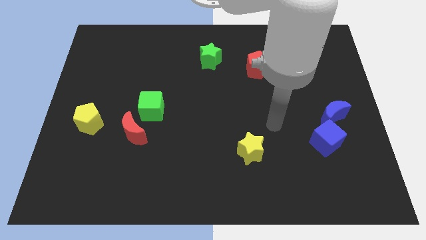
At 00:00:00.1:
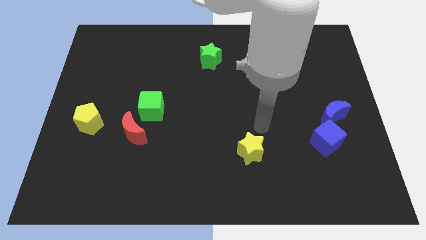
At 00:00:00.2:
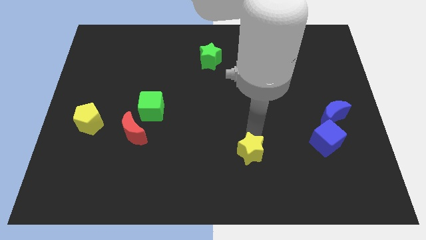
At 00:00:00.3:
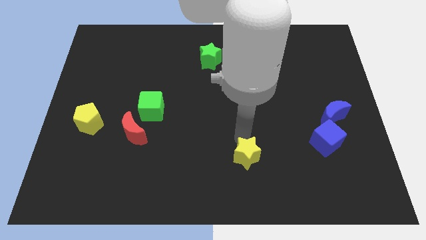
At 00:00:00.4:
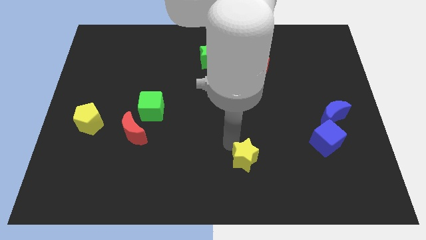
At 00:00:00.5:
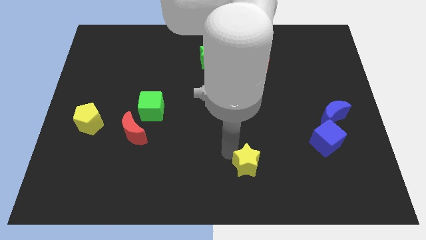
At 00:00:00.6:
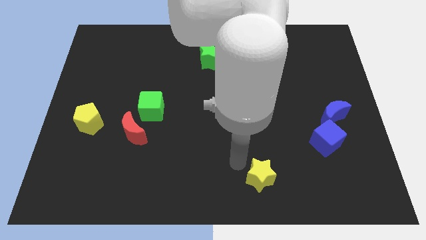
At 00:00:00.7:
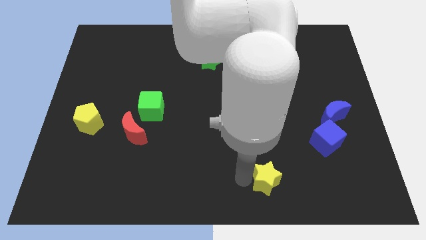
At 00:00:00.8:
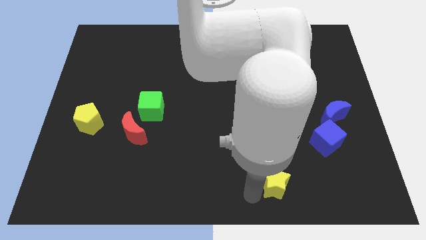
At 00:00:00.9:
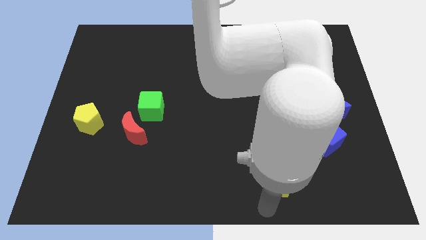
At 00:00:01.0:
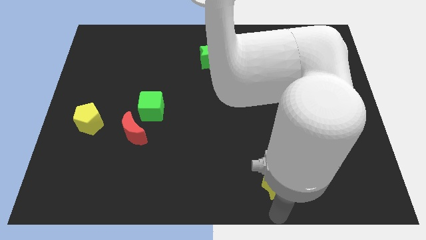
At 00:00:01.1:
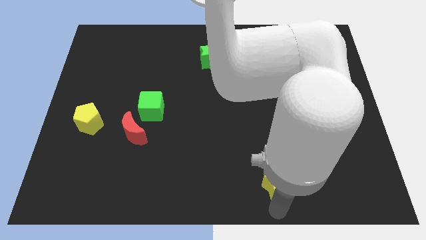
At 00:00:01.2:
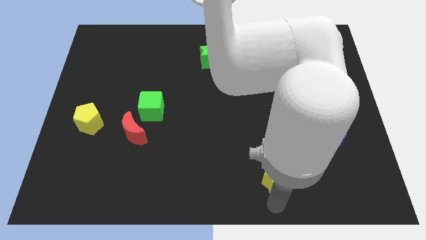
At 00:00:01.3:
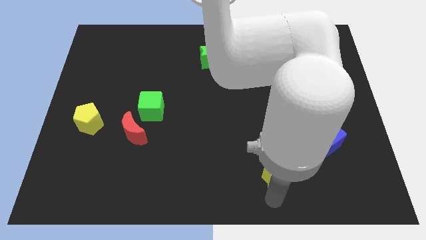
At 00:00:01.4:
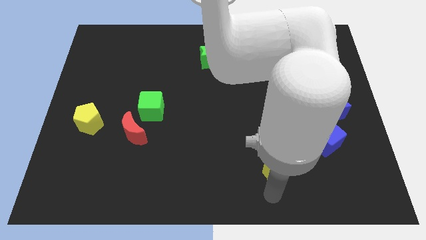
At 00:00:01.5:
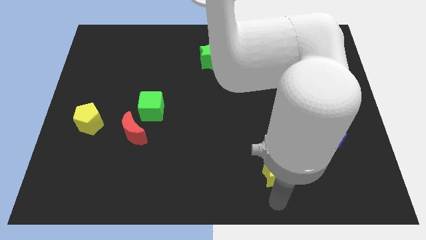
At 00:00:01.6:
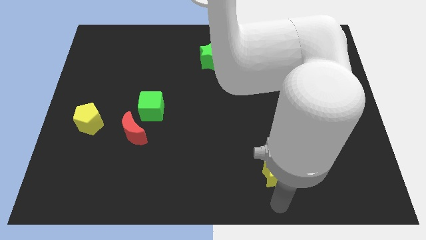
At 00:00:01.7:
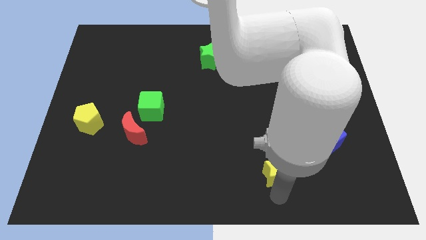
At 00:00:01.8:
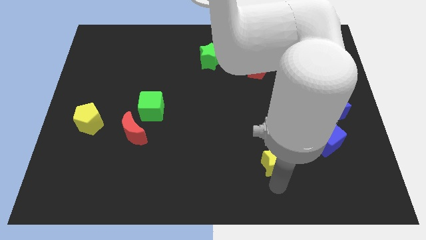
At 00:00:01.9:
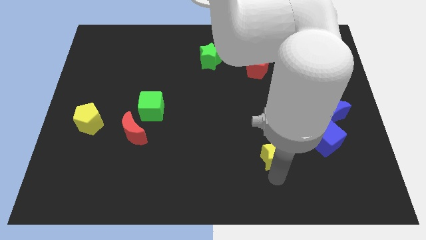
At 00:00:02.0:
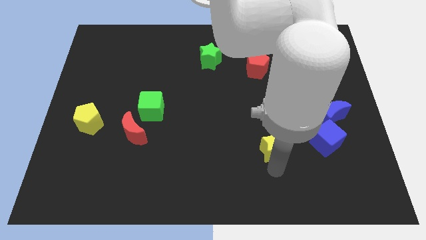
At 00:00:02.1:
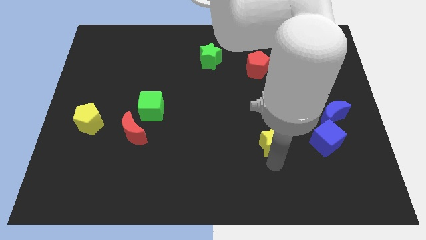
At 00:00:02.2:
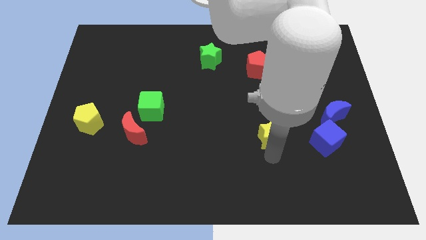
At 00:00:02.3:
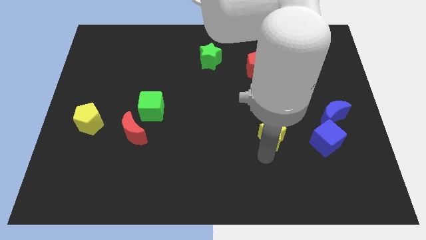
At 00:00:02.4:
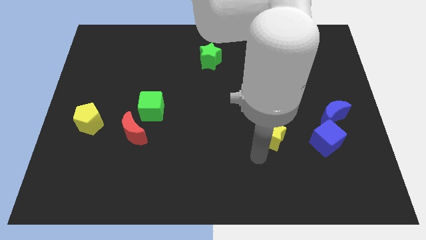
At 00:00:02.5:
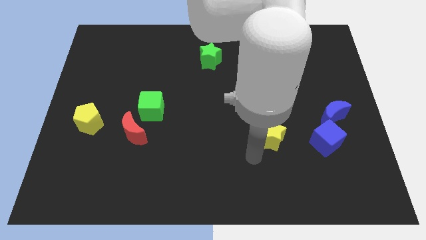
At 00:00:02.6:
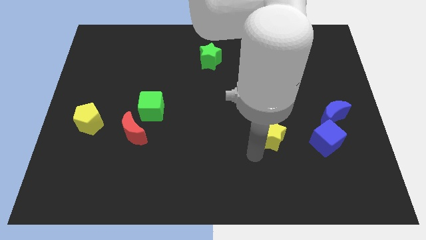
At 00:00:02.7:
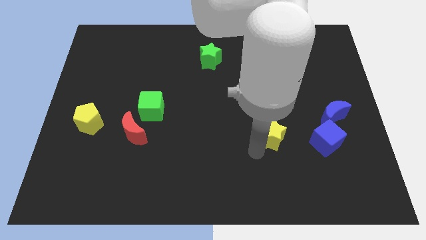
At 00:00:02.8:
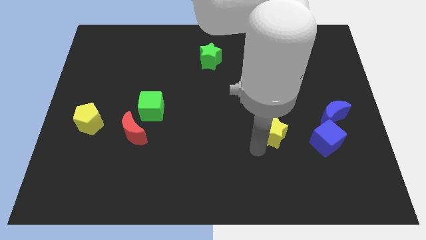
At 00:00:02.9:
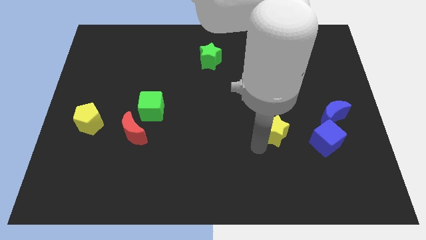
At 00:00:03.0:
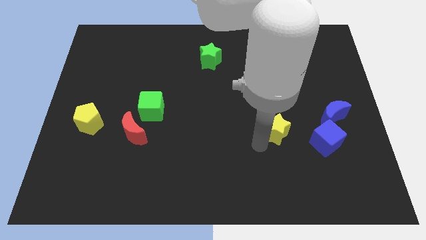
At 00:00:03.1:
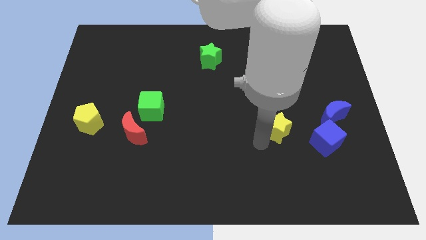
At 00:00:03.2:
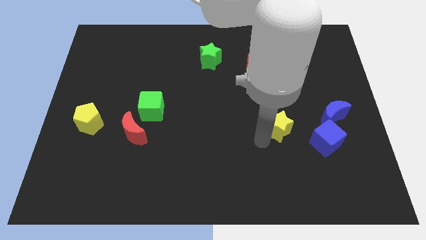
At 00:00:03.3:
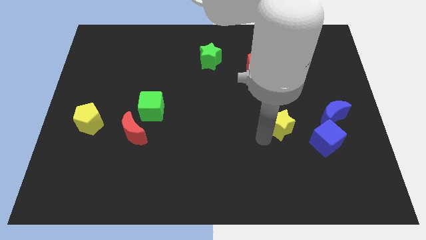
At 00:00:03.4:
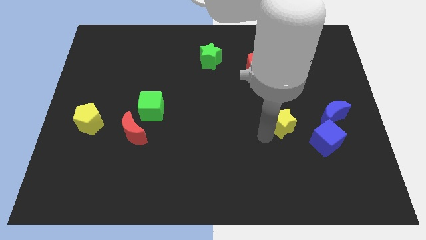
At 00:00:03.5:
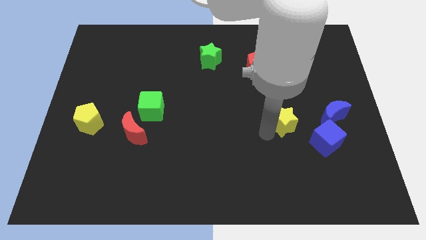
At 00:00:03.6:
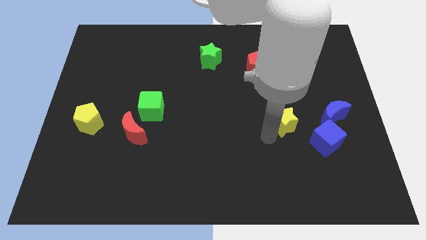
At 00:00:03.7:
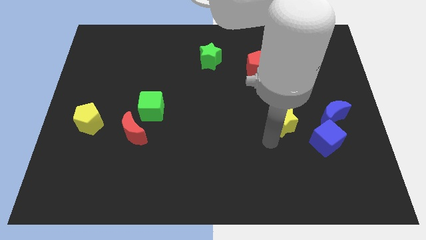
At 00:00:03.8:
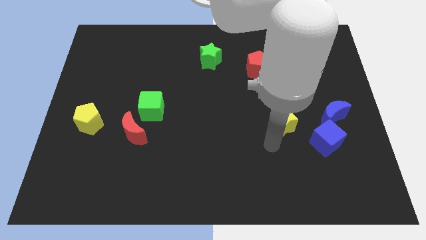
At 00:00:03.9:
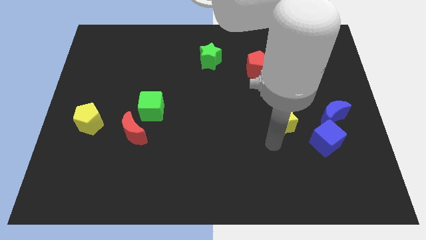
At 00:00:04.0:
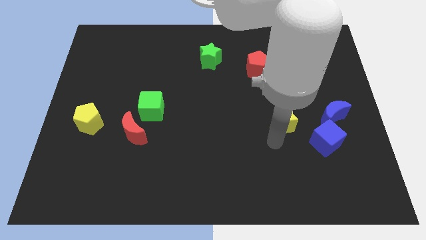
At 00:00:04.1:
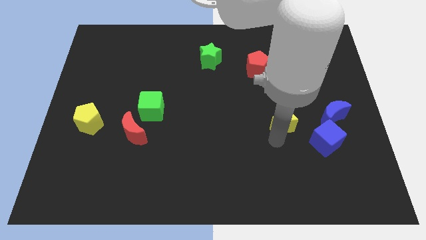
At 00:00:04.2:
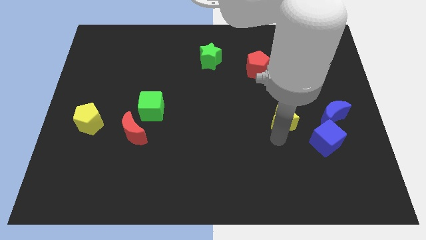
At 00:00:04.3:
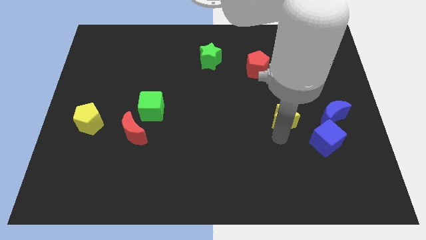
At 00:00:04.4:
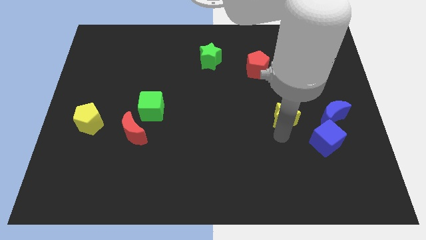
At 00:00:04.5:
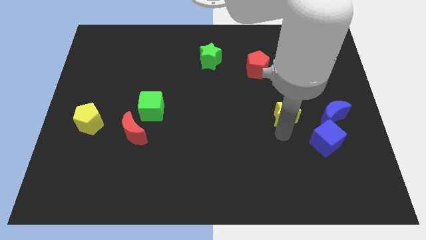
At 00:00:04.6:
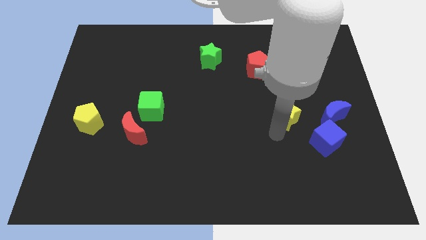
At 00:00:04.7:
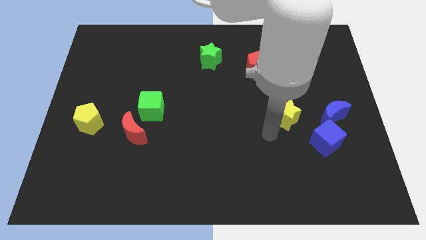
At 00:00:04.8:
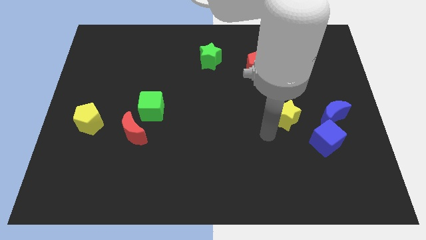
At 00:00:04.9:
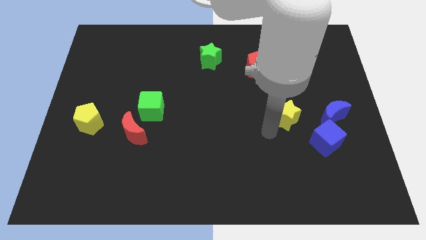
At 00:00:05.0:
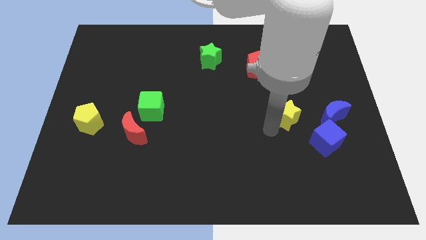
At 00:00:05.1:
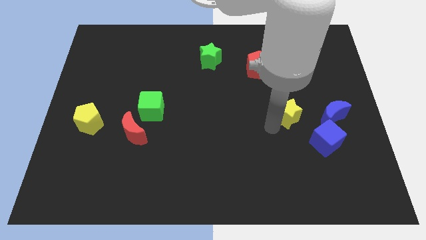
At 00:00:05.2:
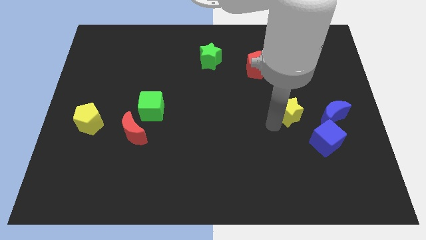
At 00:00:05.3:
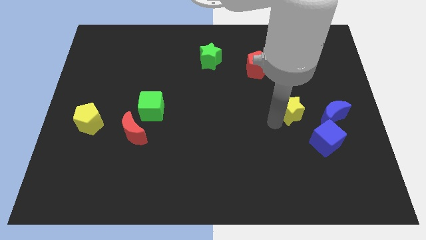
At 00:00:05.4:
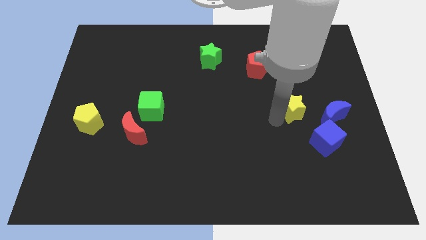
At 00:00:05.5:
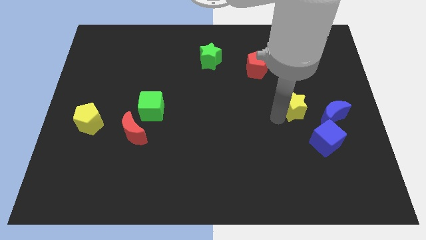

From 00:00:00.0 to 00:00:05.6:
put the yellow star diagonally up and to the left of the blue moon

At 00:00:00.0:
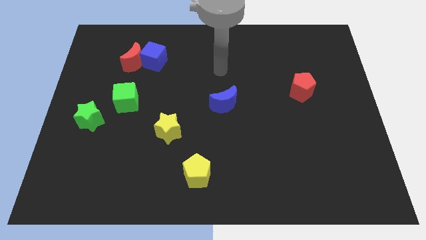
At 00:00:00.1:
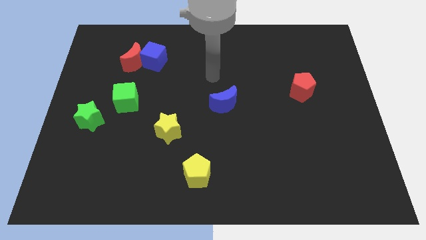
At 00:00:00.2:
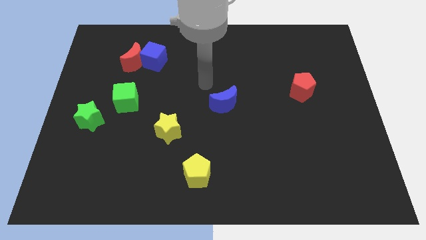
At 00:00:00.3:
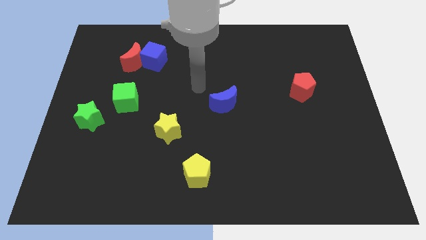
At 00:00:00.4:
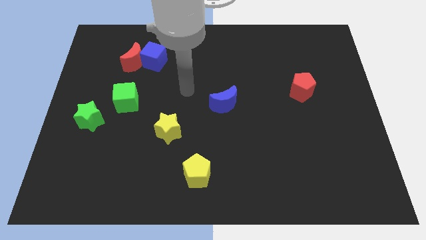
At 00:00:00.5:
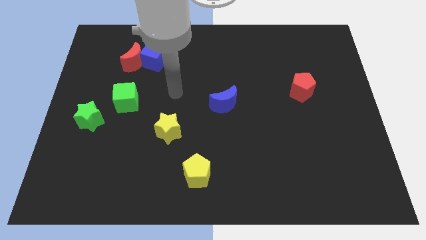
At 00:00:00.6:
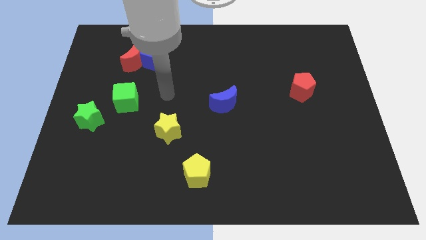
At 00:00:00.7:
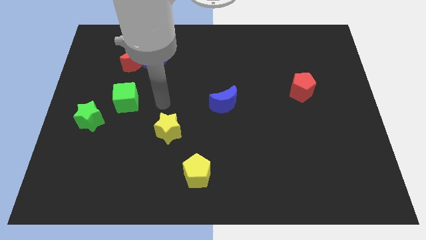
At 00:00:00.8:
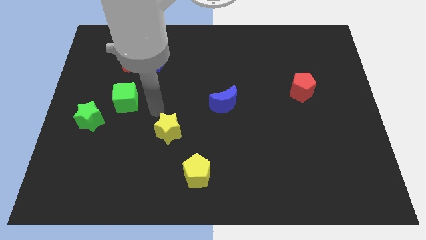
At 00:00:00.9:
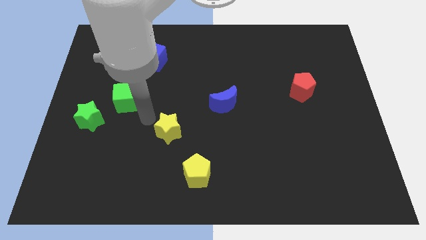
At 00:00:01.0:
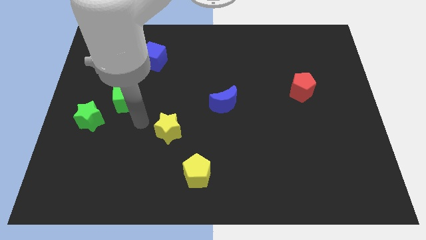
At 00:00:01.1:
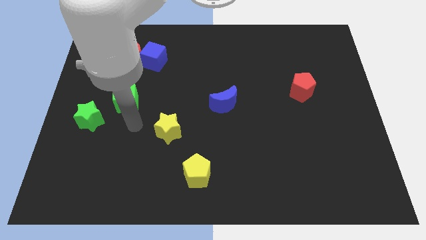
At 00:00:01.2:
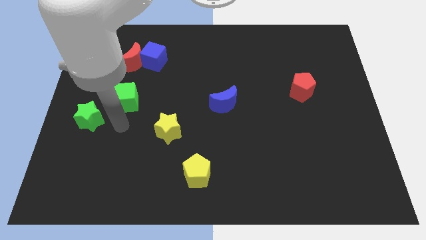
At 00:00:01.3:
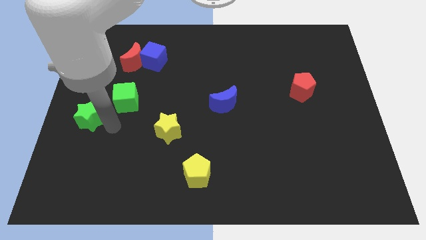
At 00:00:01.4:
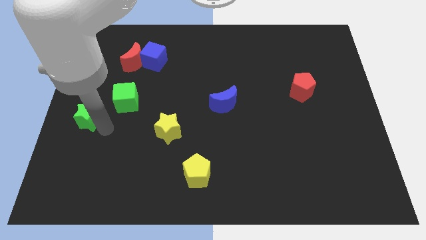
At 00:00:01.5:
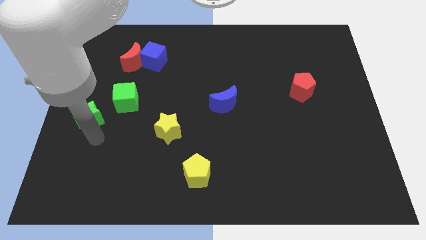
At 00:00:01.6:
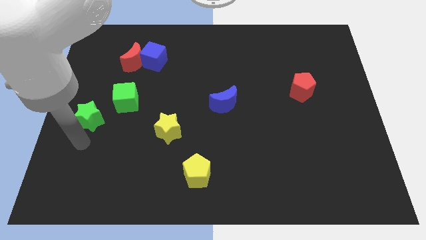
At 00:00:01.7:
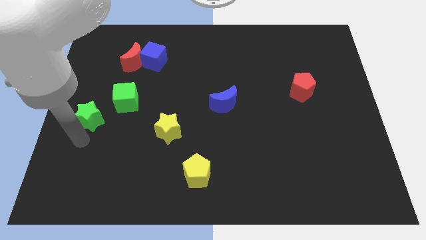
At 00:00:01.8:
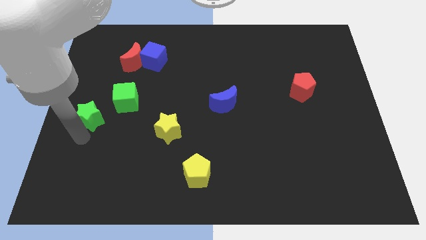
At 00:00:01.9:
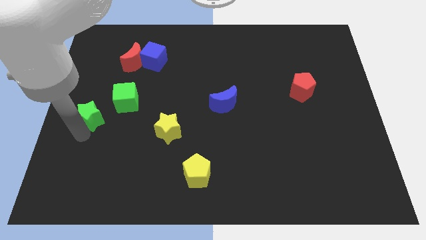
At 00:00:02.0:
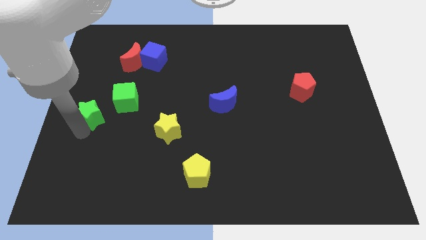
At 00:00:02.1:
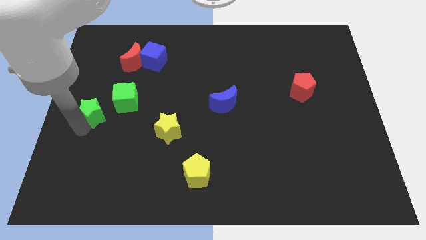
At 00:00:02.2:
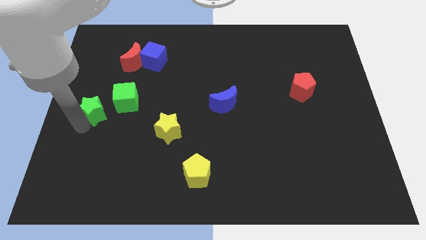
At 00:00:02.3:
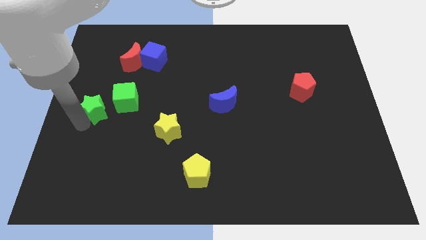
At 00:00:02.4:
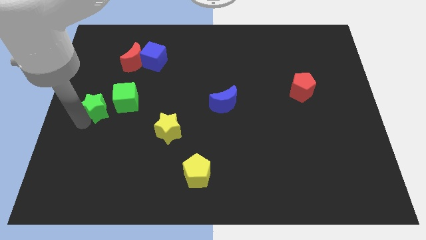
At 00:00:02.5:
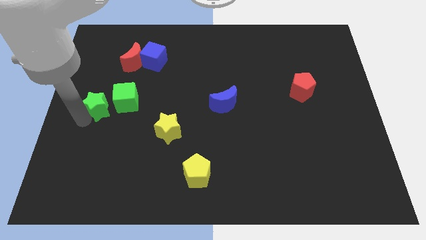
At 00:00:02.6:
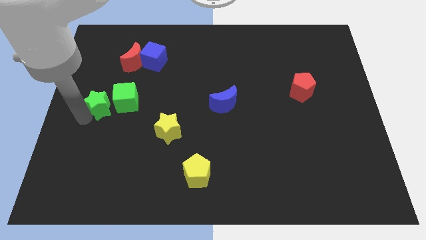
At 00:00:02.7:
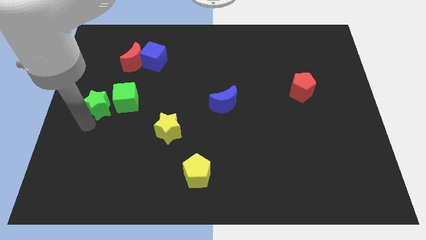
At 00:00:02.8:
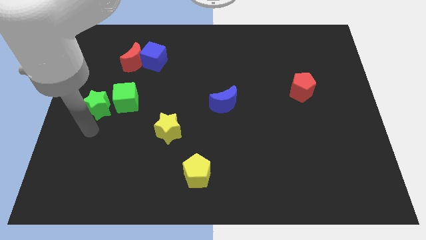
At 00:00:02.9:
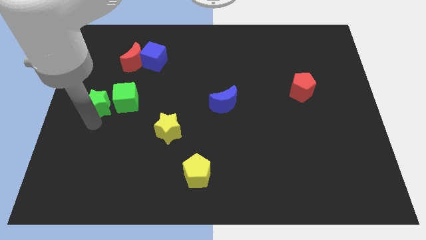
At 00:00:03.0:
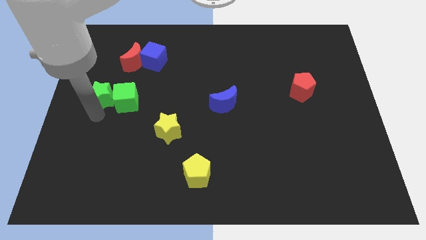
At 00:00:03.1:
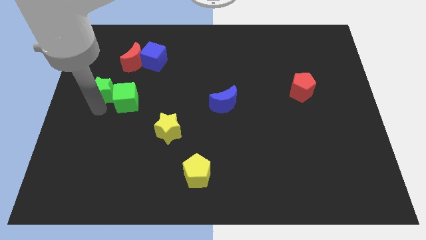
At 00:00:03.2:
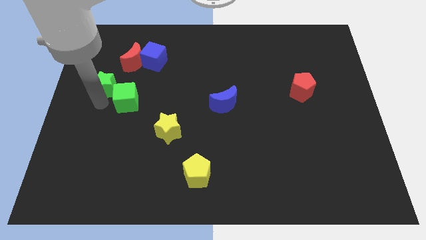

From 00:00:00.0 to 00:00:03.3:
put the green star to the bottom left side of the red moon
